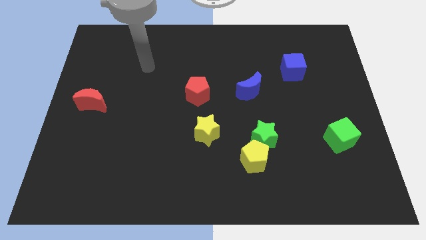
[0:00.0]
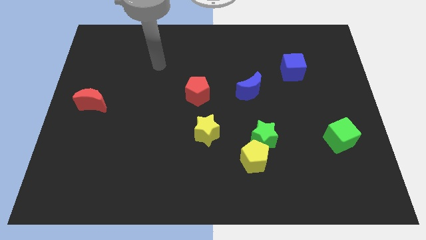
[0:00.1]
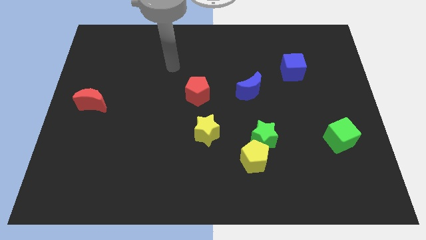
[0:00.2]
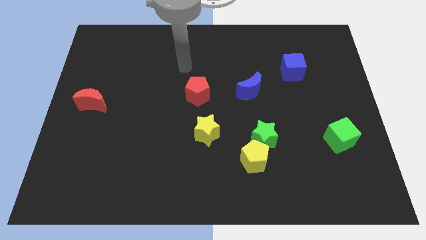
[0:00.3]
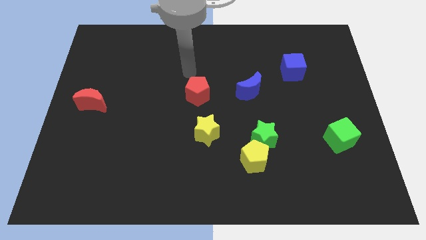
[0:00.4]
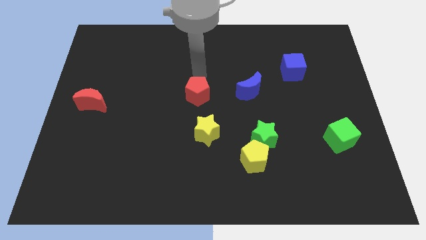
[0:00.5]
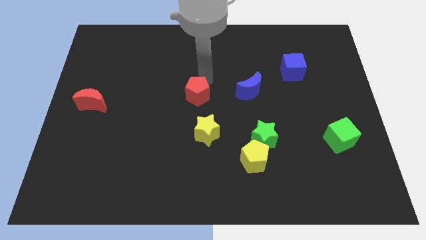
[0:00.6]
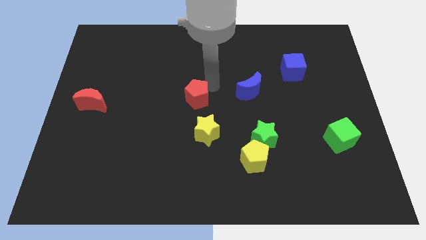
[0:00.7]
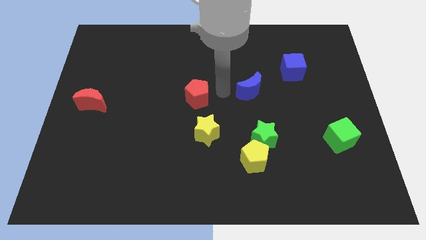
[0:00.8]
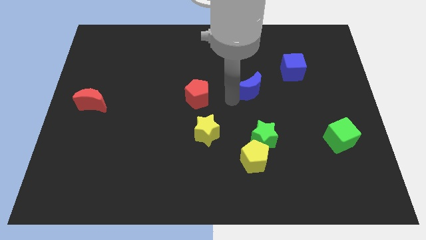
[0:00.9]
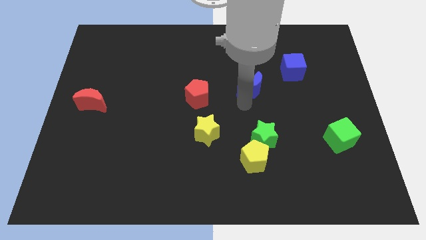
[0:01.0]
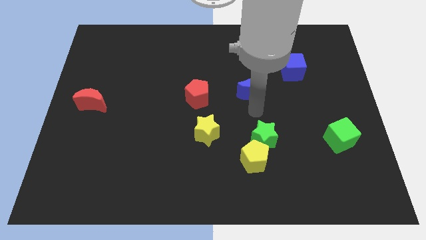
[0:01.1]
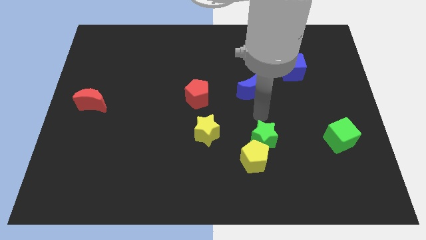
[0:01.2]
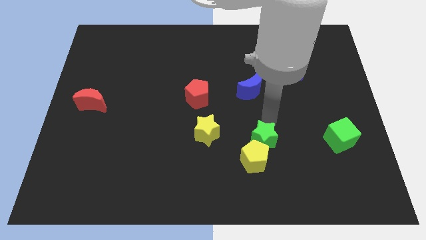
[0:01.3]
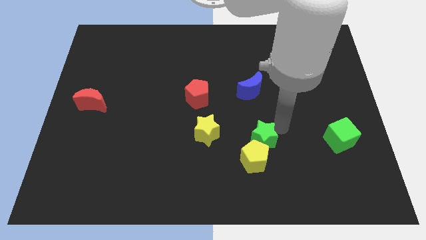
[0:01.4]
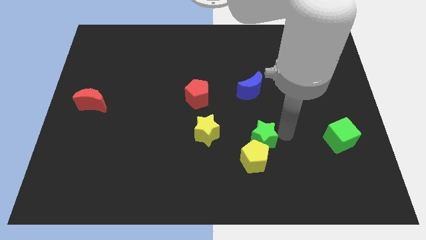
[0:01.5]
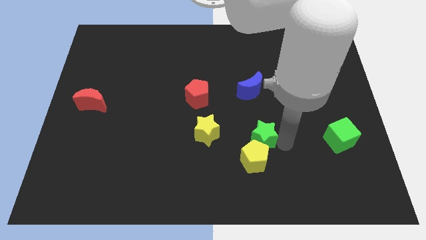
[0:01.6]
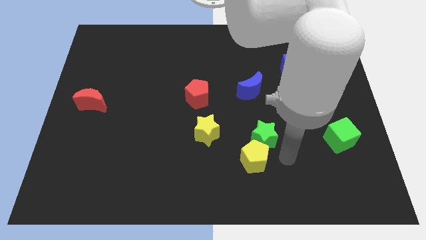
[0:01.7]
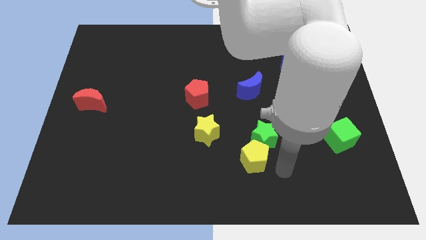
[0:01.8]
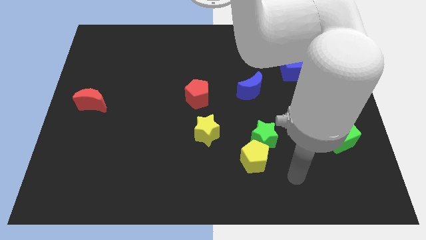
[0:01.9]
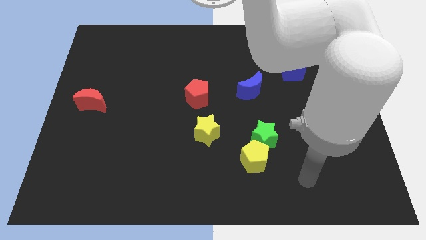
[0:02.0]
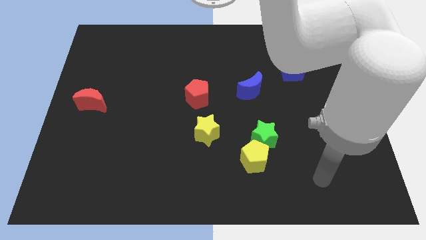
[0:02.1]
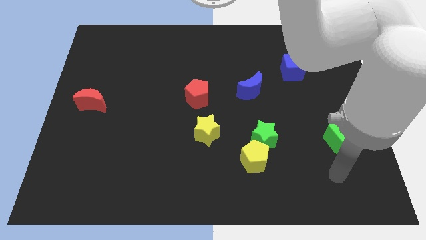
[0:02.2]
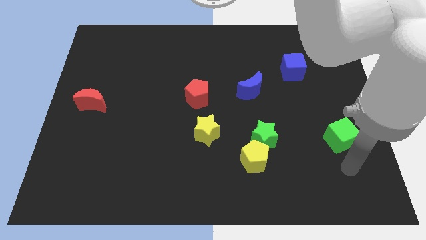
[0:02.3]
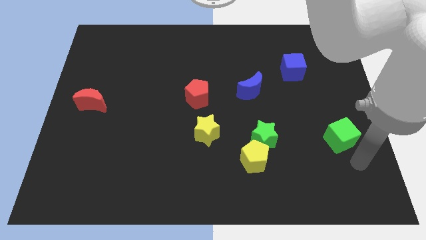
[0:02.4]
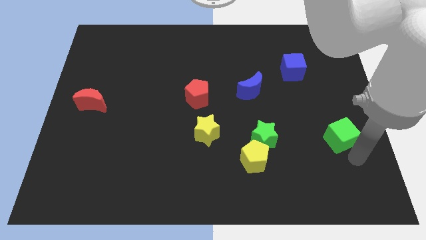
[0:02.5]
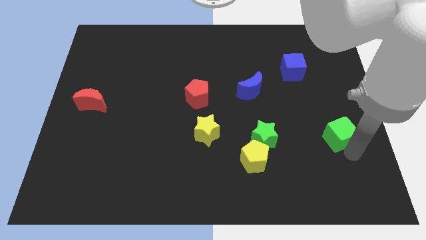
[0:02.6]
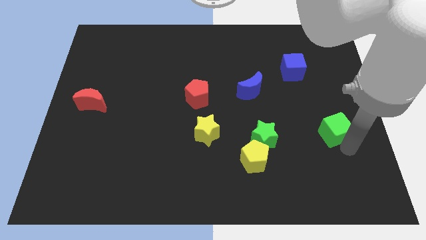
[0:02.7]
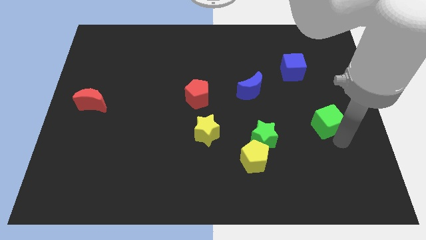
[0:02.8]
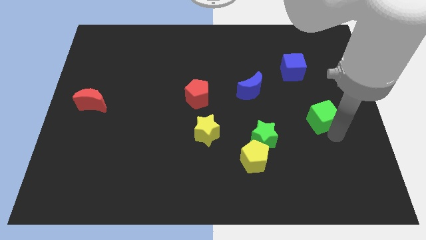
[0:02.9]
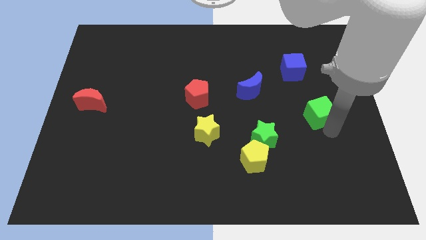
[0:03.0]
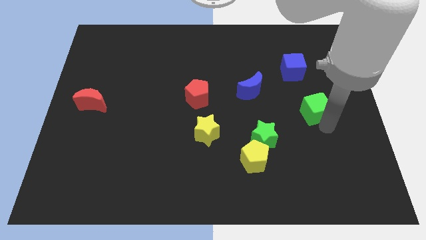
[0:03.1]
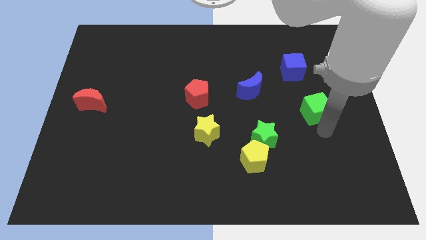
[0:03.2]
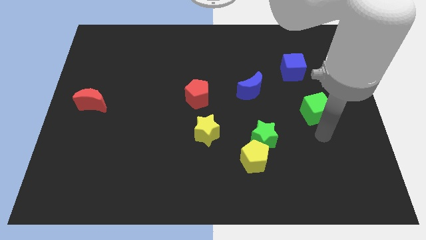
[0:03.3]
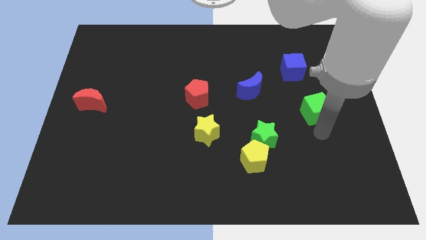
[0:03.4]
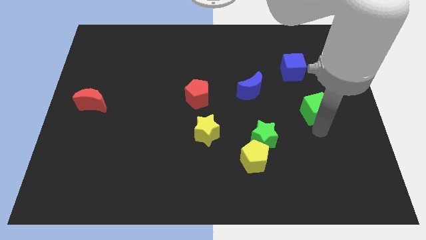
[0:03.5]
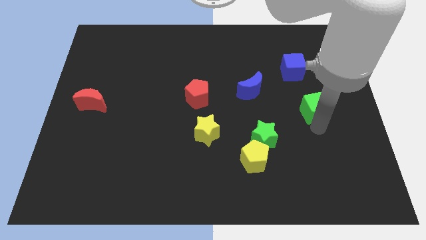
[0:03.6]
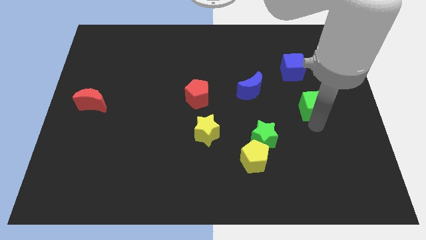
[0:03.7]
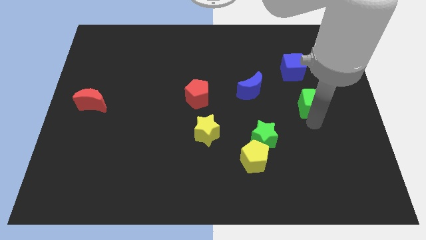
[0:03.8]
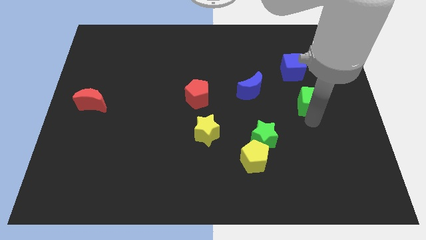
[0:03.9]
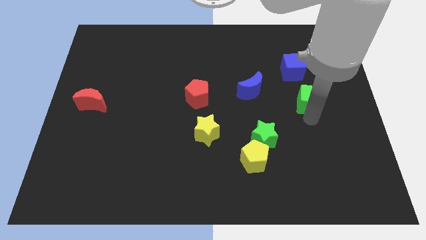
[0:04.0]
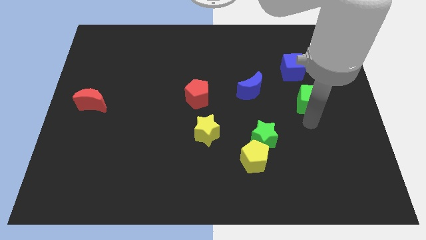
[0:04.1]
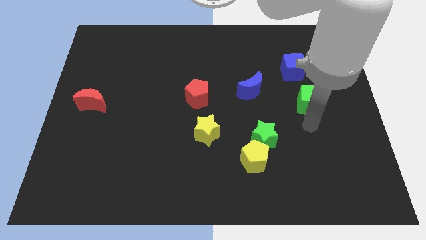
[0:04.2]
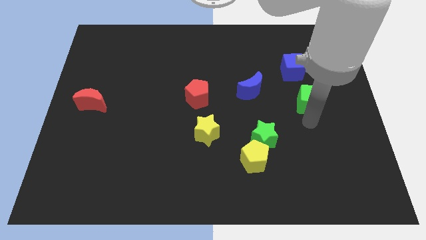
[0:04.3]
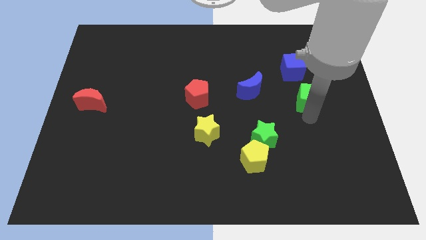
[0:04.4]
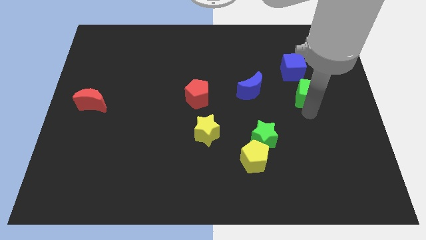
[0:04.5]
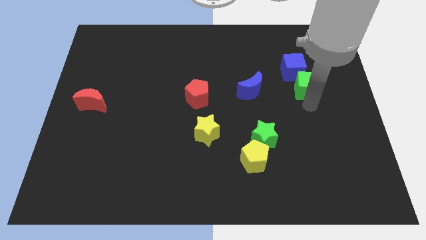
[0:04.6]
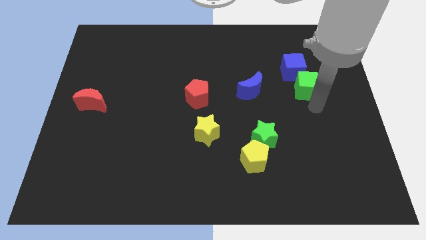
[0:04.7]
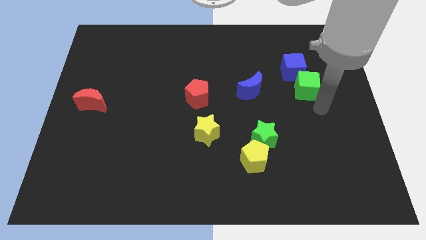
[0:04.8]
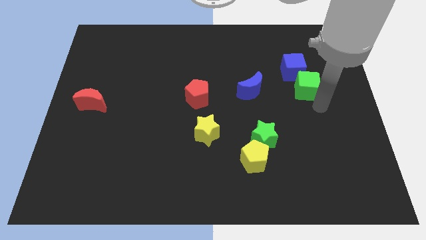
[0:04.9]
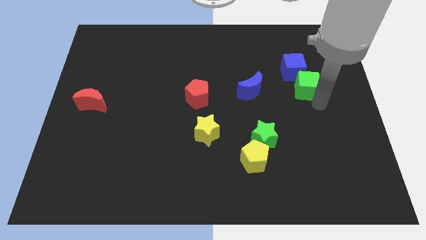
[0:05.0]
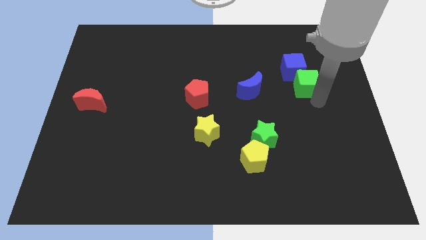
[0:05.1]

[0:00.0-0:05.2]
put the green cube next to the blue cube

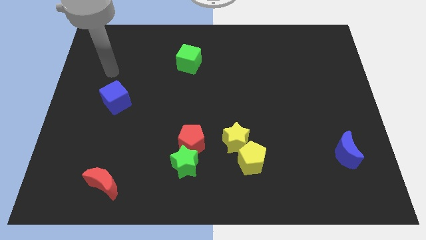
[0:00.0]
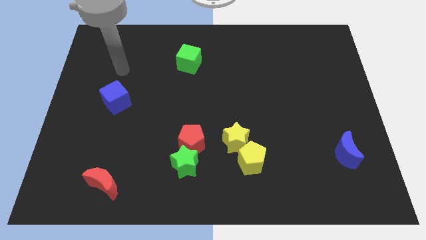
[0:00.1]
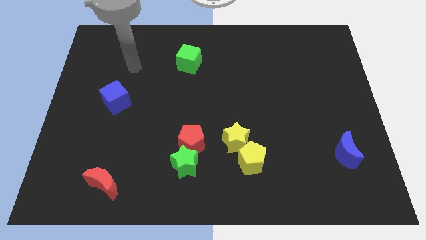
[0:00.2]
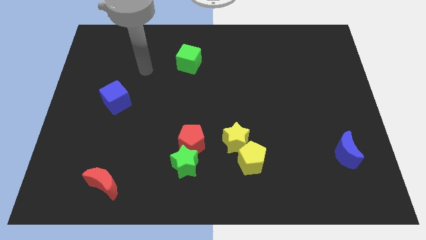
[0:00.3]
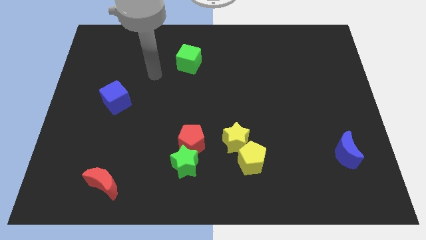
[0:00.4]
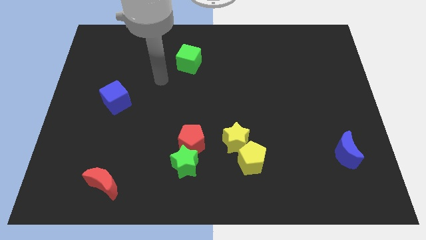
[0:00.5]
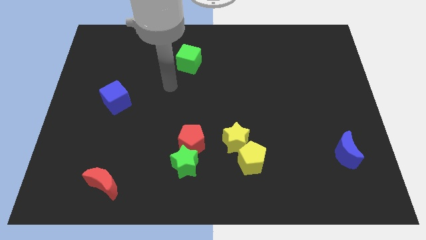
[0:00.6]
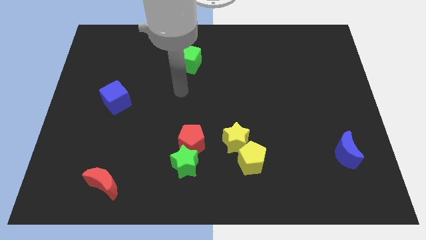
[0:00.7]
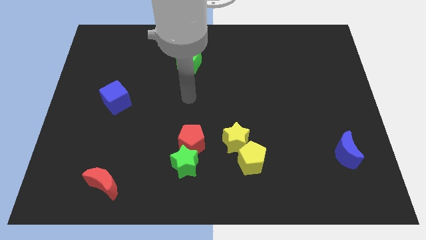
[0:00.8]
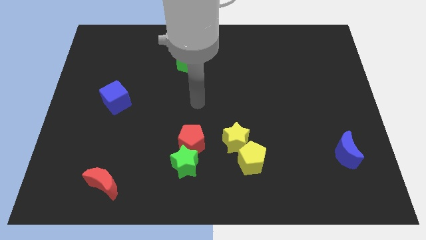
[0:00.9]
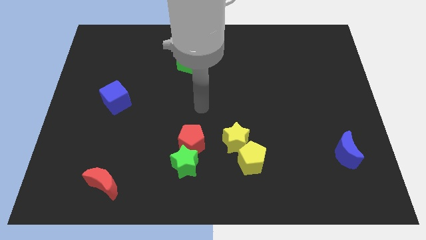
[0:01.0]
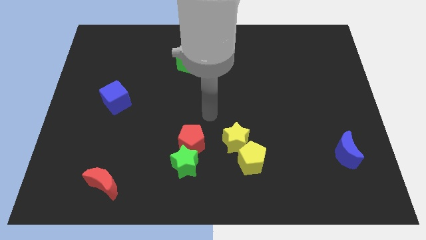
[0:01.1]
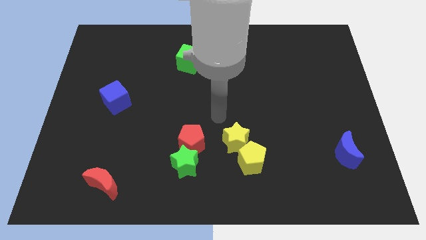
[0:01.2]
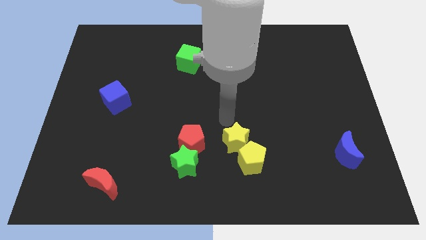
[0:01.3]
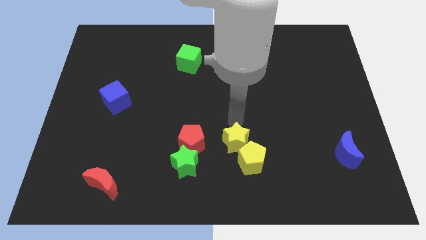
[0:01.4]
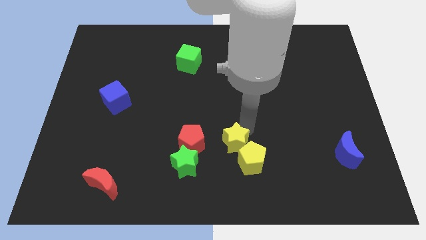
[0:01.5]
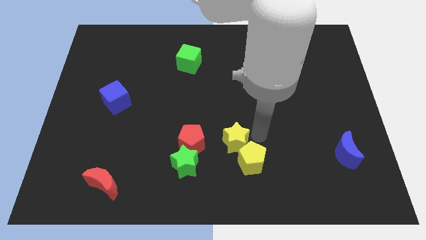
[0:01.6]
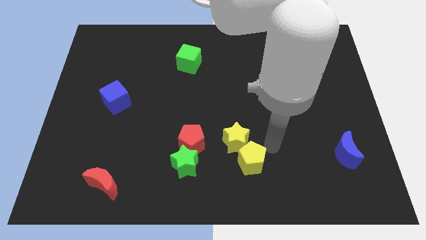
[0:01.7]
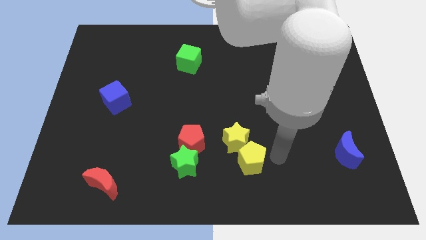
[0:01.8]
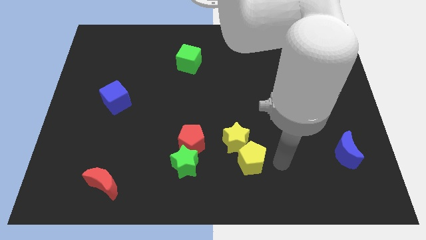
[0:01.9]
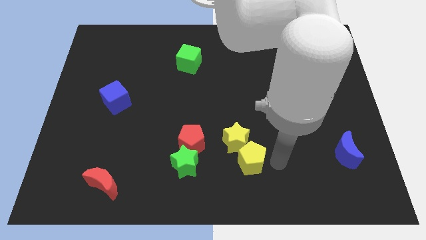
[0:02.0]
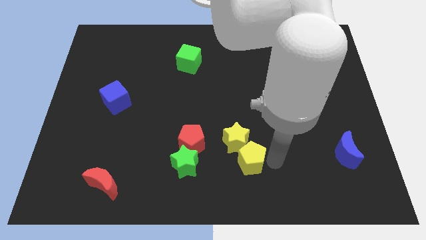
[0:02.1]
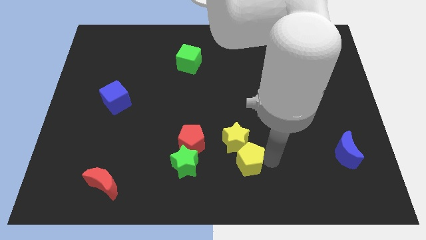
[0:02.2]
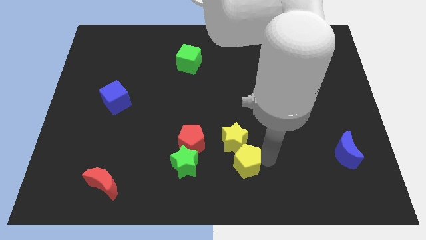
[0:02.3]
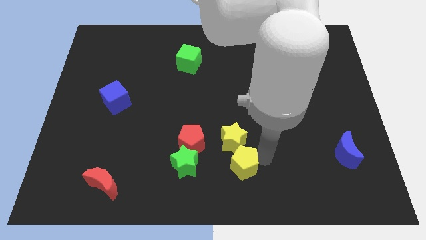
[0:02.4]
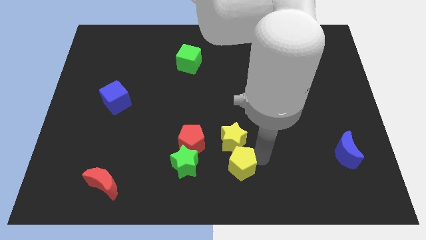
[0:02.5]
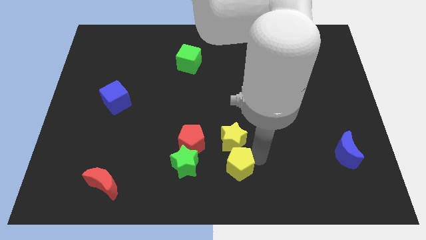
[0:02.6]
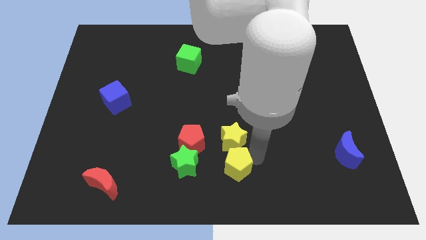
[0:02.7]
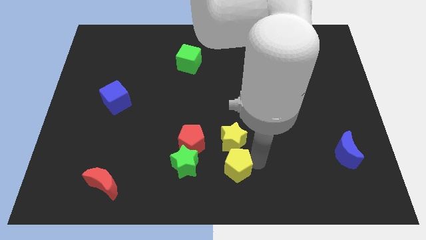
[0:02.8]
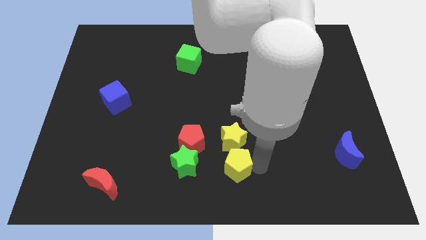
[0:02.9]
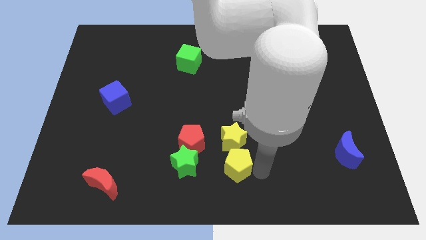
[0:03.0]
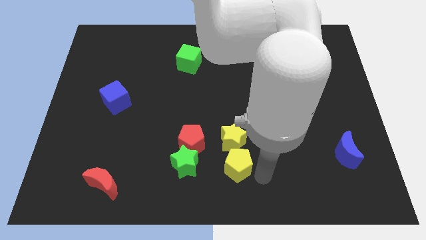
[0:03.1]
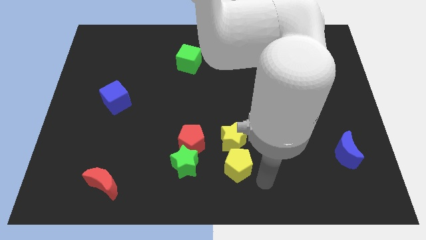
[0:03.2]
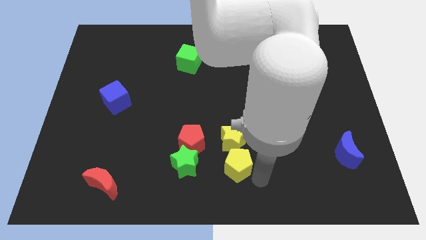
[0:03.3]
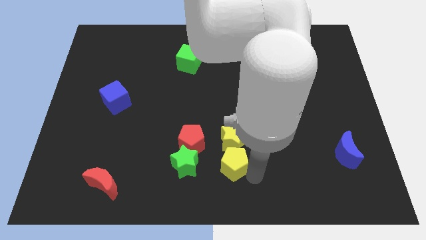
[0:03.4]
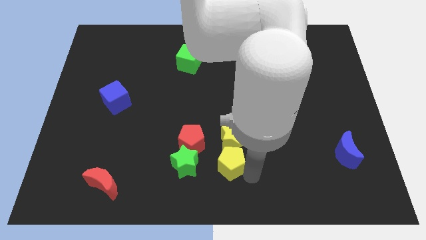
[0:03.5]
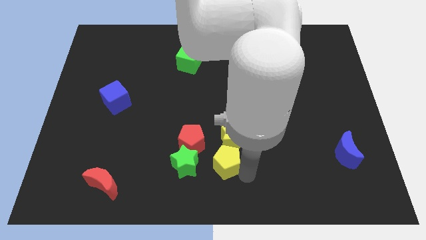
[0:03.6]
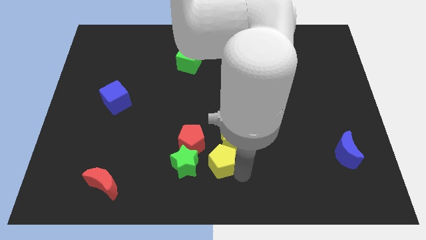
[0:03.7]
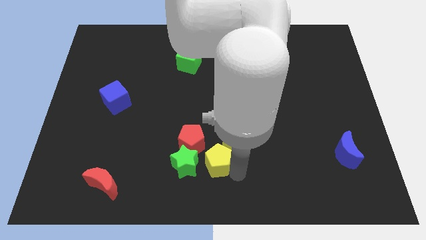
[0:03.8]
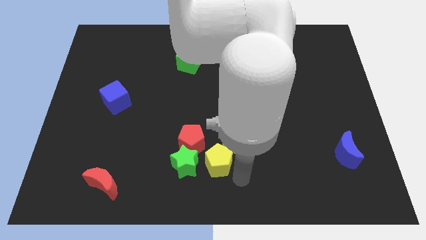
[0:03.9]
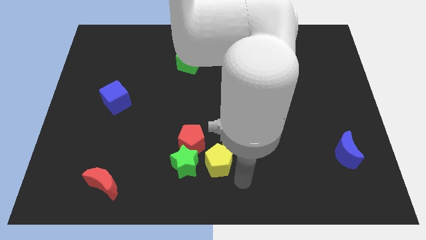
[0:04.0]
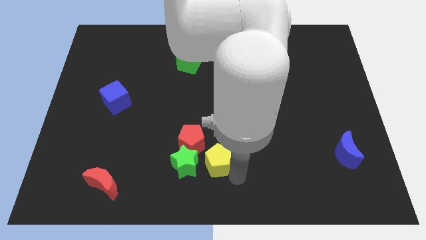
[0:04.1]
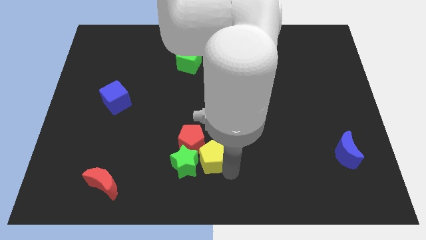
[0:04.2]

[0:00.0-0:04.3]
push the yellow pentagon close to the red pentagon
